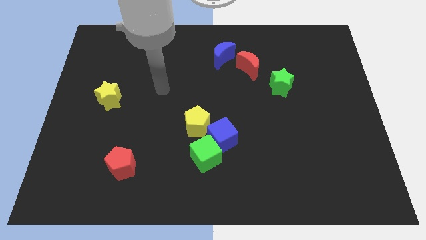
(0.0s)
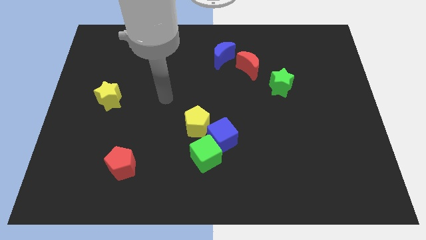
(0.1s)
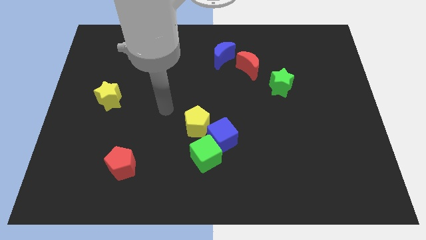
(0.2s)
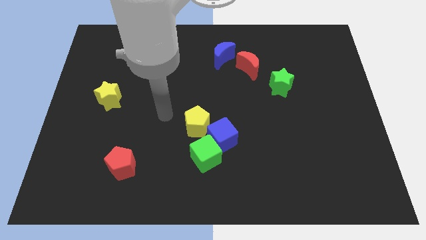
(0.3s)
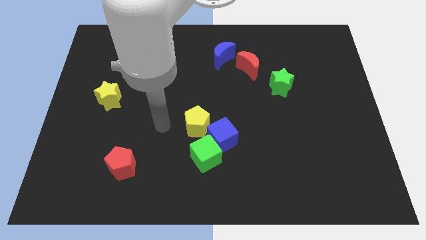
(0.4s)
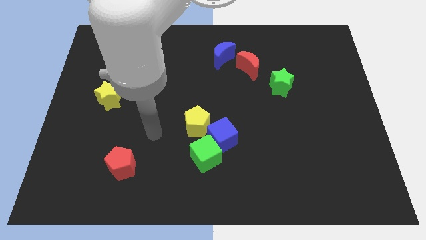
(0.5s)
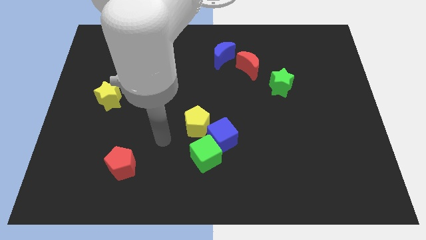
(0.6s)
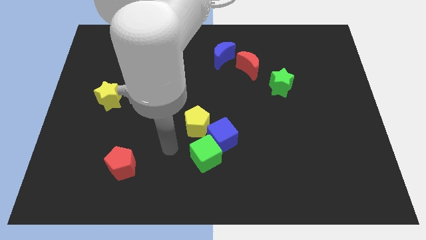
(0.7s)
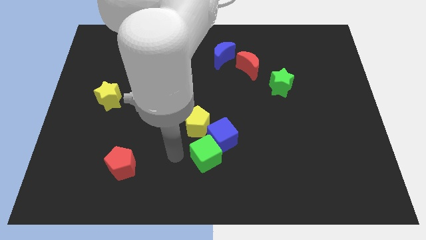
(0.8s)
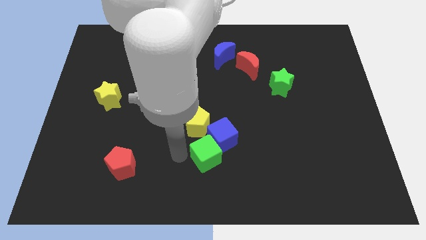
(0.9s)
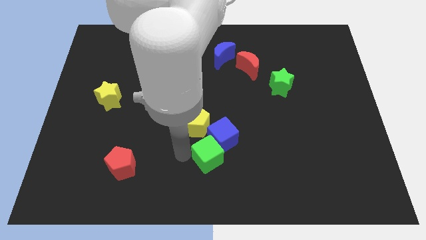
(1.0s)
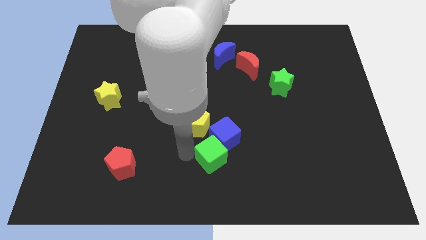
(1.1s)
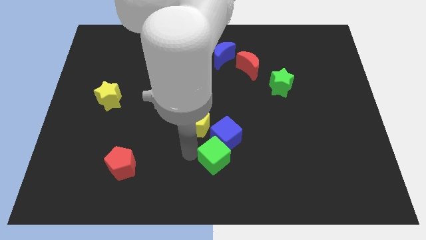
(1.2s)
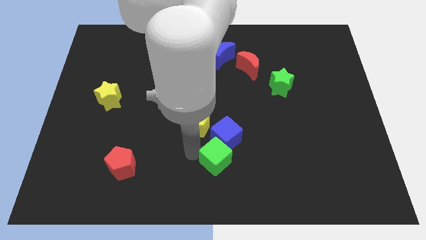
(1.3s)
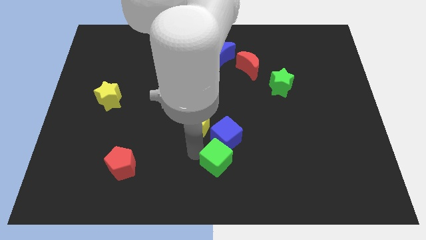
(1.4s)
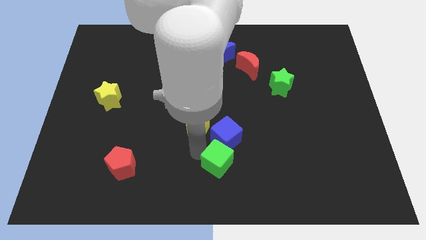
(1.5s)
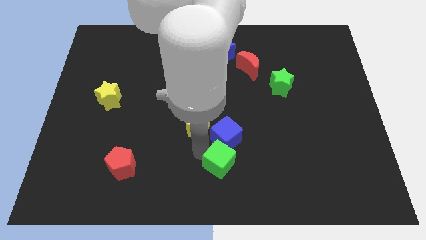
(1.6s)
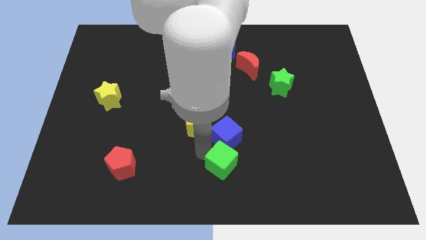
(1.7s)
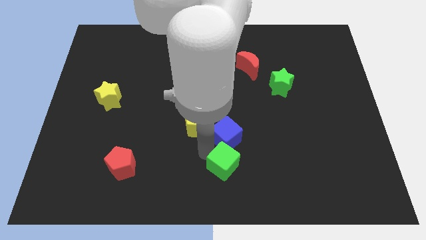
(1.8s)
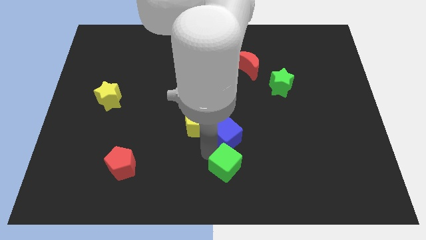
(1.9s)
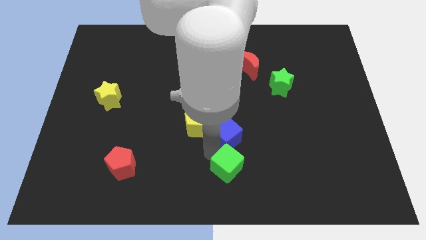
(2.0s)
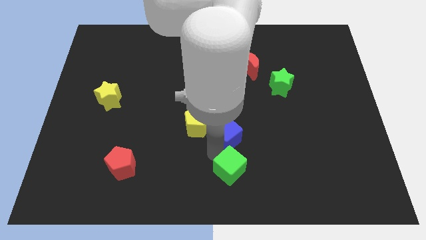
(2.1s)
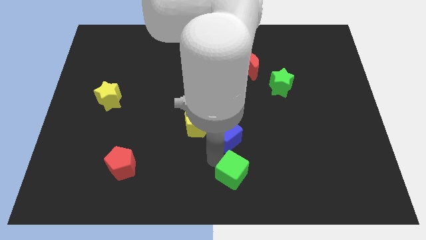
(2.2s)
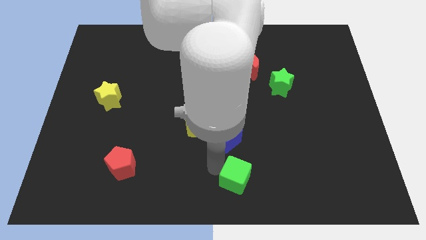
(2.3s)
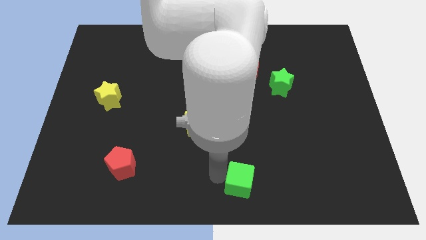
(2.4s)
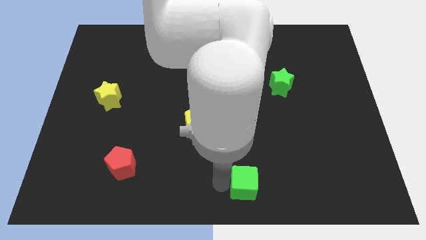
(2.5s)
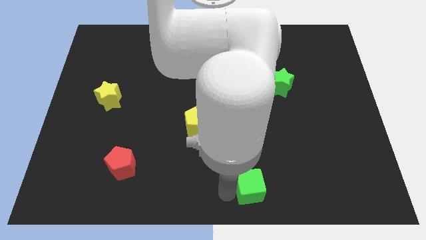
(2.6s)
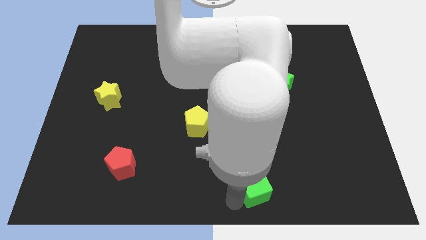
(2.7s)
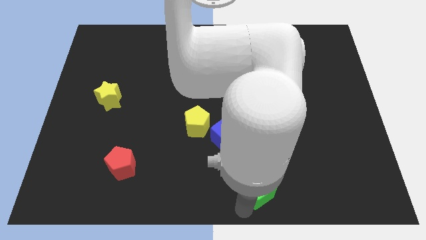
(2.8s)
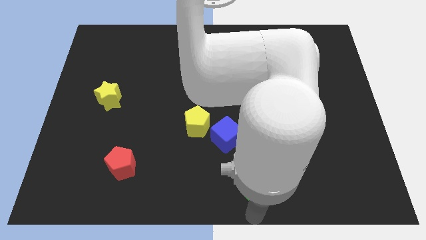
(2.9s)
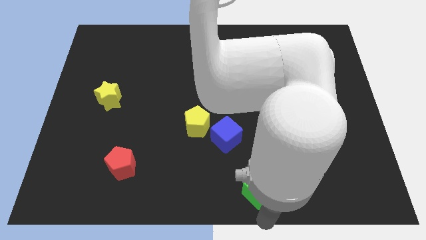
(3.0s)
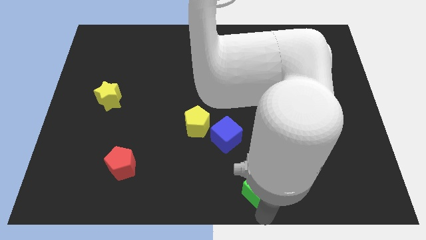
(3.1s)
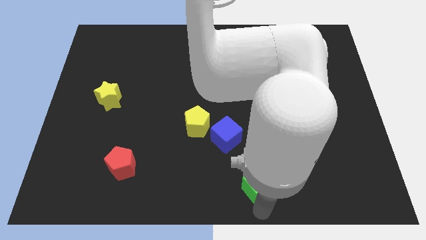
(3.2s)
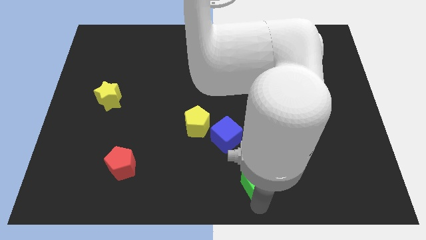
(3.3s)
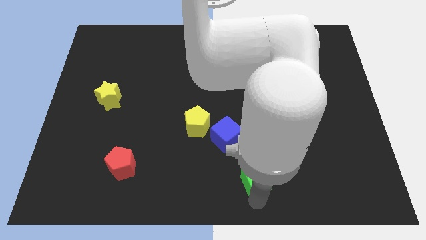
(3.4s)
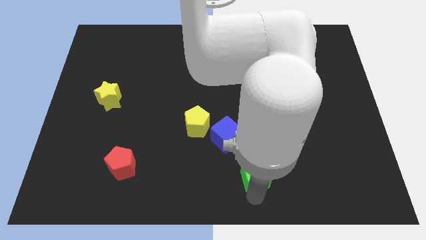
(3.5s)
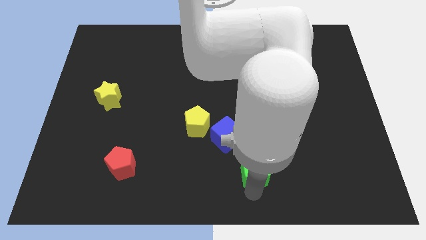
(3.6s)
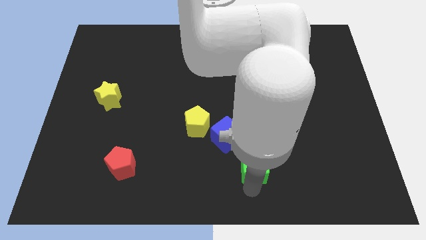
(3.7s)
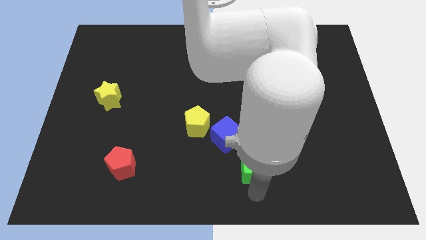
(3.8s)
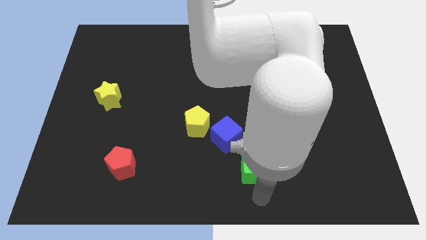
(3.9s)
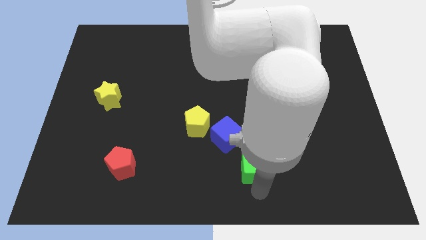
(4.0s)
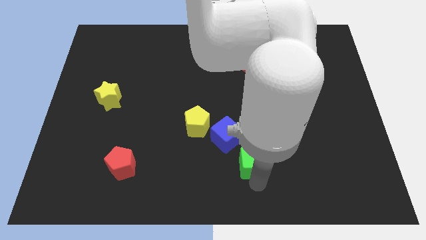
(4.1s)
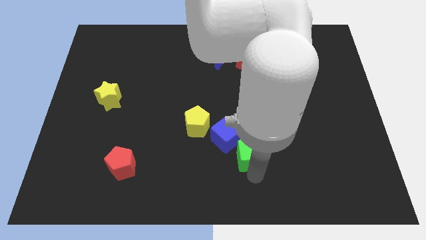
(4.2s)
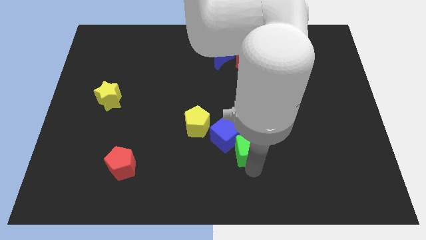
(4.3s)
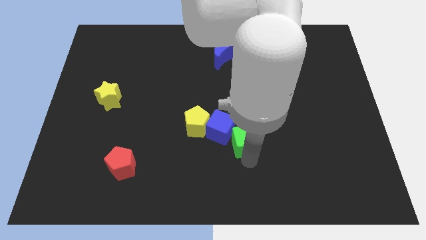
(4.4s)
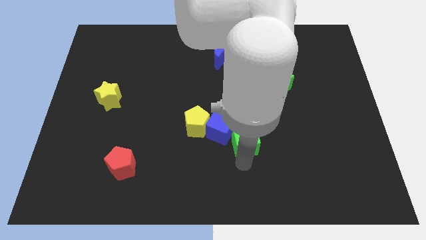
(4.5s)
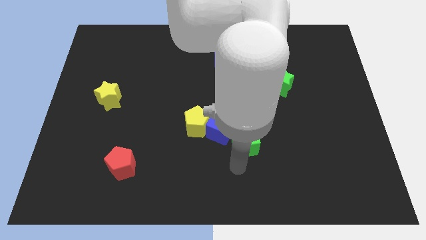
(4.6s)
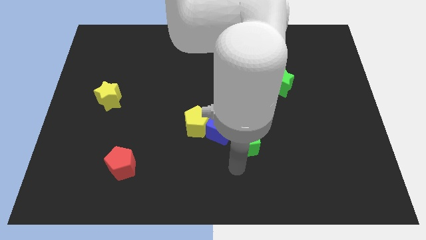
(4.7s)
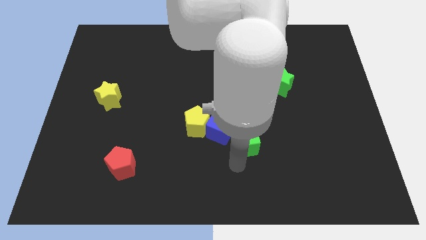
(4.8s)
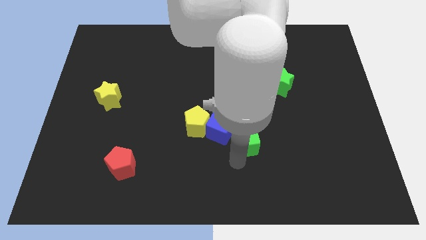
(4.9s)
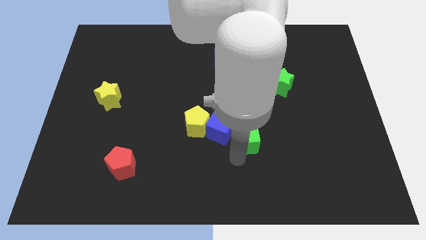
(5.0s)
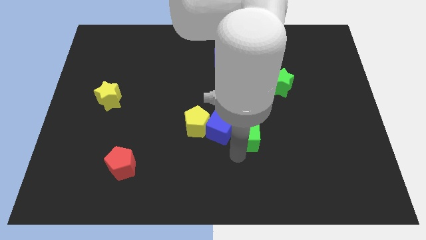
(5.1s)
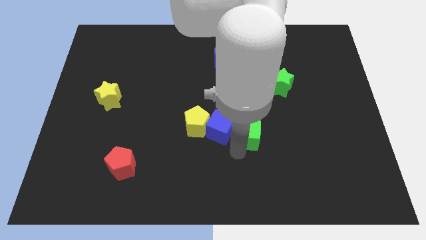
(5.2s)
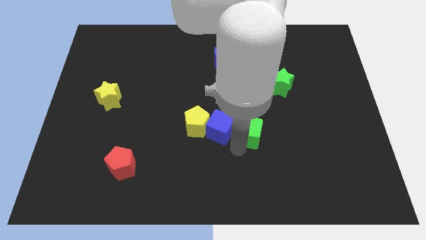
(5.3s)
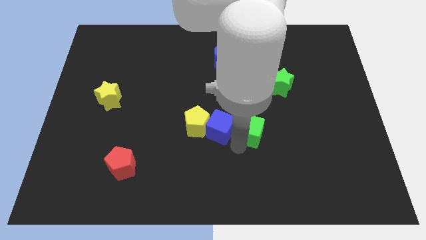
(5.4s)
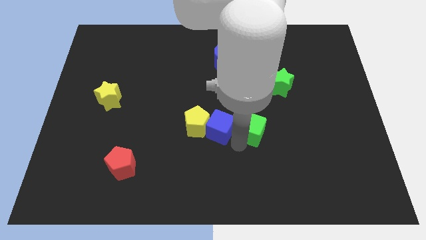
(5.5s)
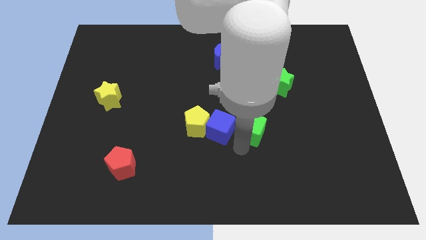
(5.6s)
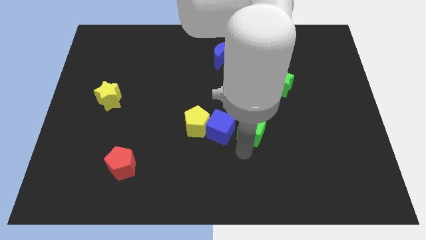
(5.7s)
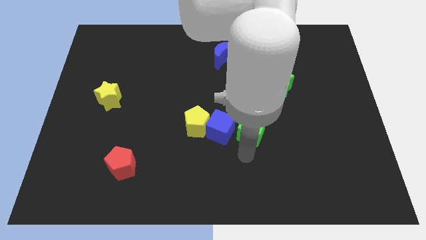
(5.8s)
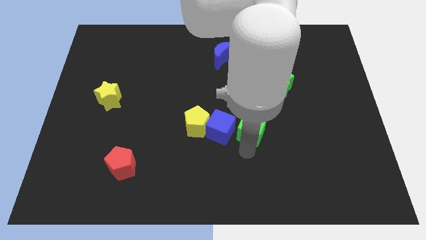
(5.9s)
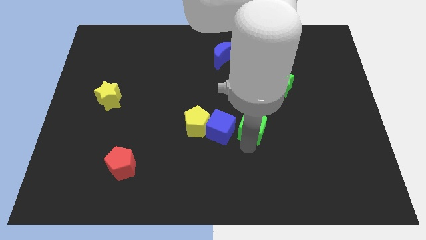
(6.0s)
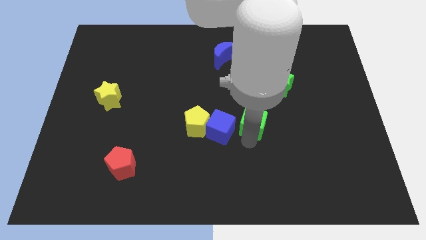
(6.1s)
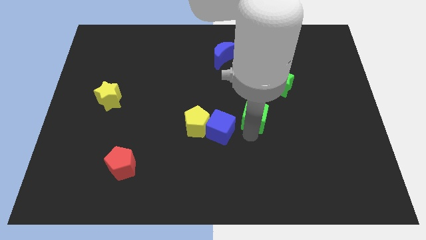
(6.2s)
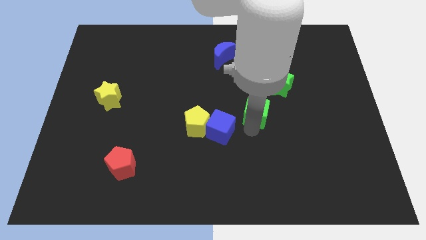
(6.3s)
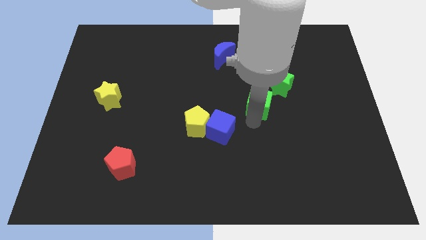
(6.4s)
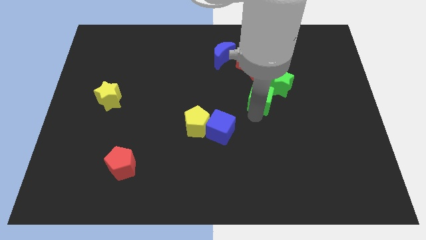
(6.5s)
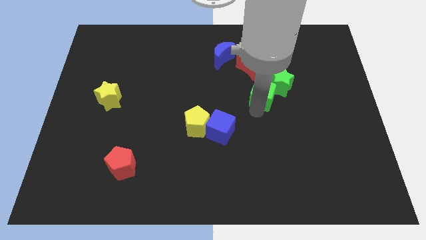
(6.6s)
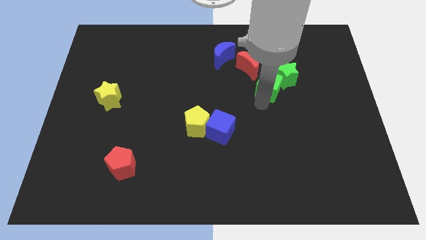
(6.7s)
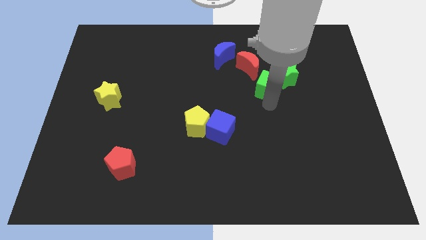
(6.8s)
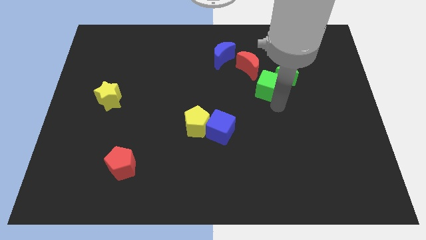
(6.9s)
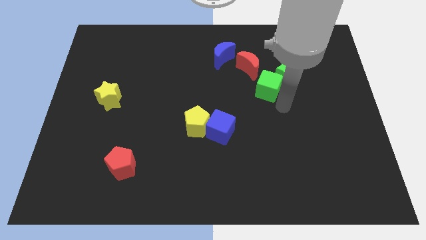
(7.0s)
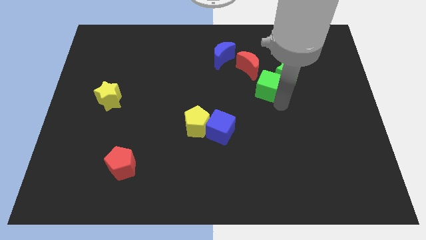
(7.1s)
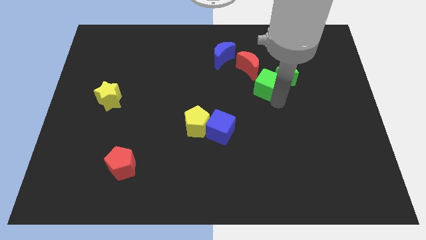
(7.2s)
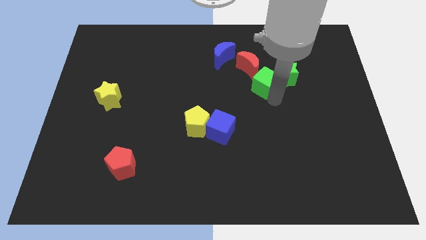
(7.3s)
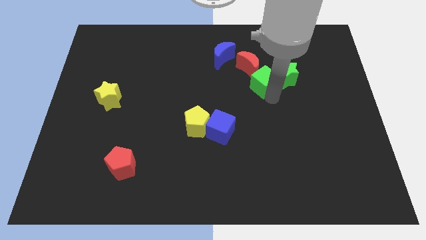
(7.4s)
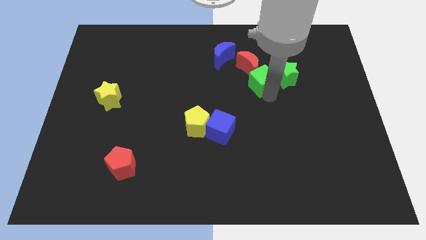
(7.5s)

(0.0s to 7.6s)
put the green cube close to the red moon
